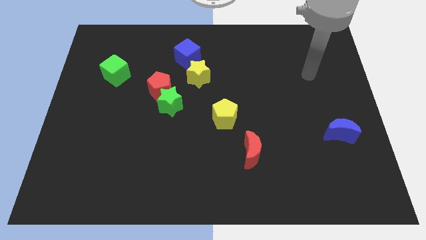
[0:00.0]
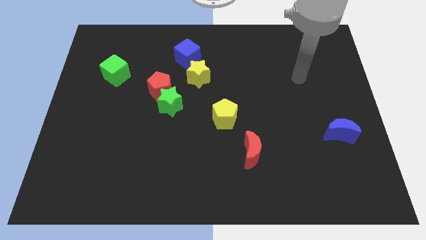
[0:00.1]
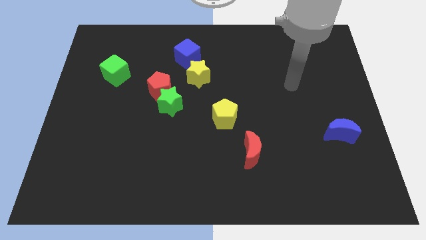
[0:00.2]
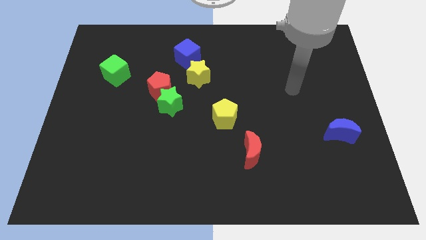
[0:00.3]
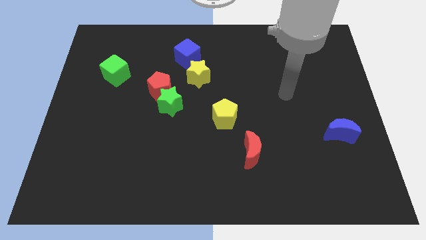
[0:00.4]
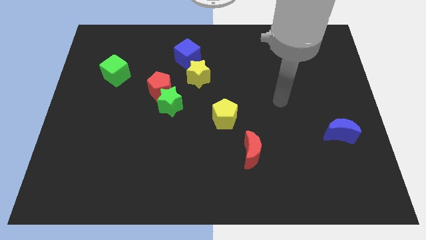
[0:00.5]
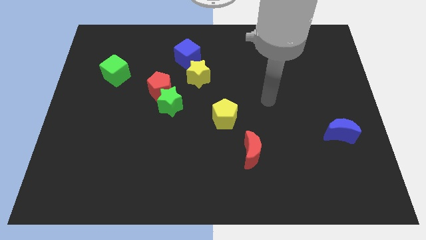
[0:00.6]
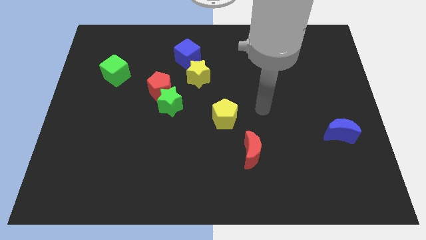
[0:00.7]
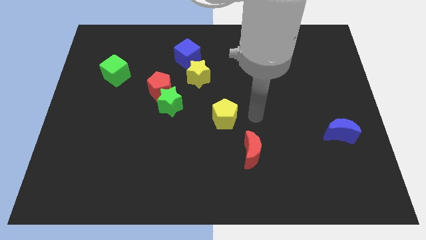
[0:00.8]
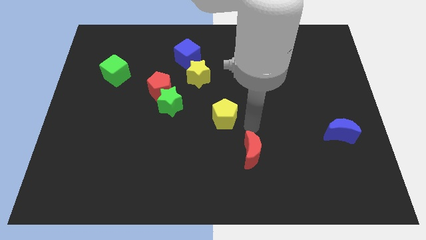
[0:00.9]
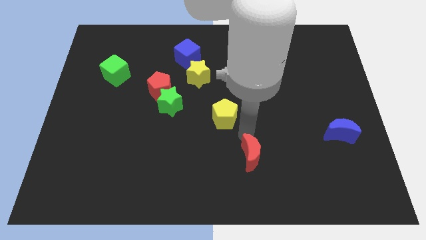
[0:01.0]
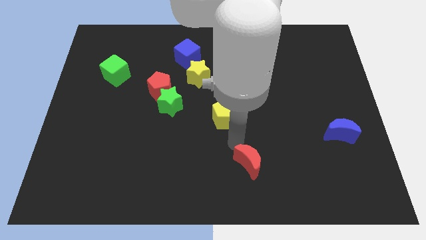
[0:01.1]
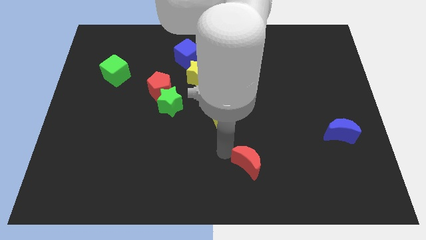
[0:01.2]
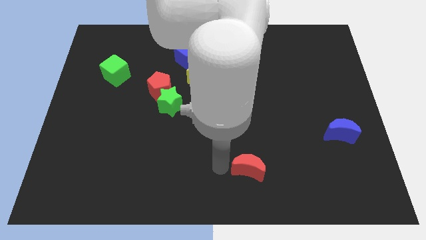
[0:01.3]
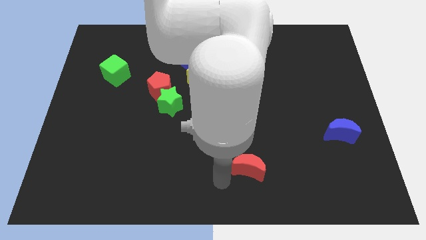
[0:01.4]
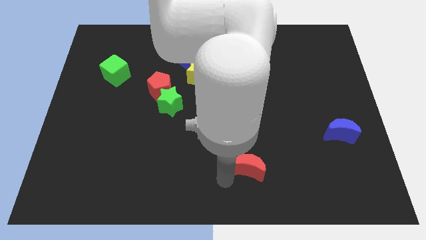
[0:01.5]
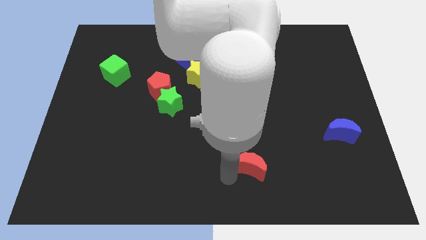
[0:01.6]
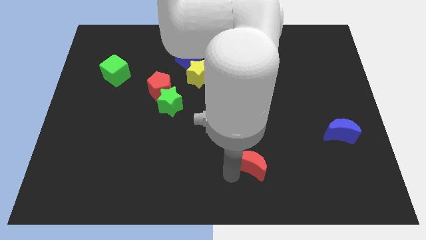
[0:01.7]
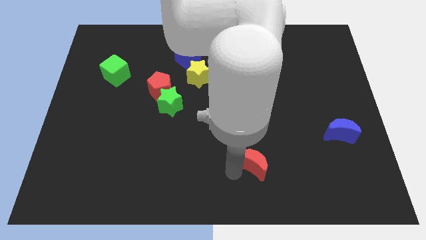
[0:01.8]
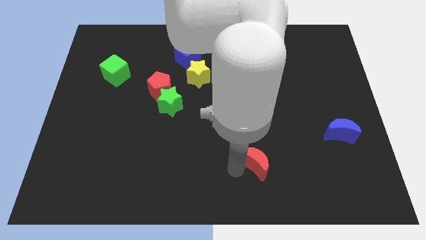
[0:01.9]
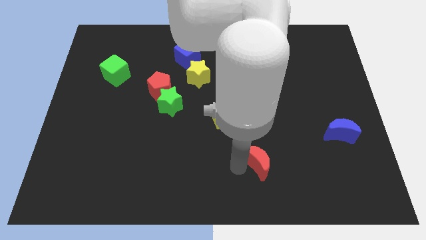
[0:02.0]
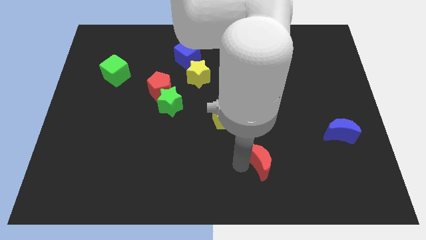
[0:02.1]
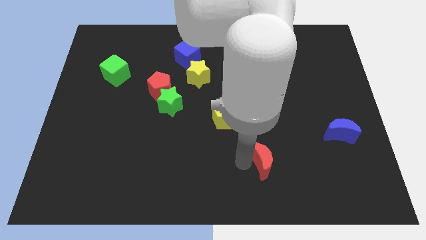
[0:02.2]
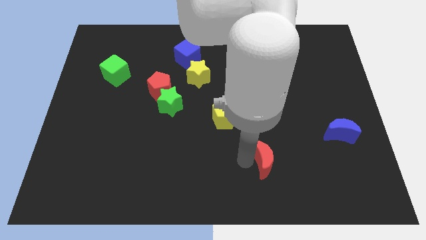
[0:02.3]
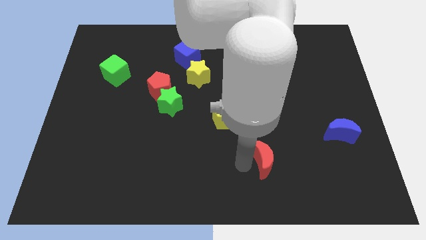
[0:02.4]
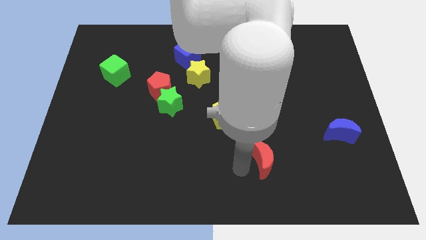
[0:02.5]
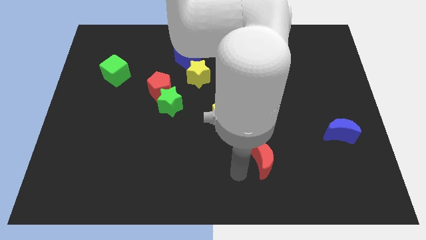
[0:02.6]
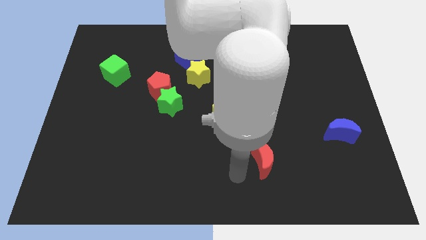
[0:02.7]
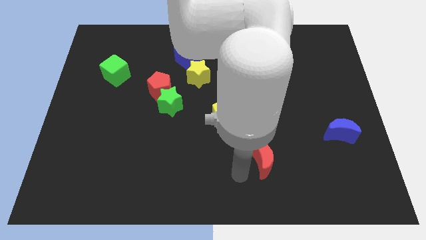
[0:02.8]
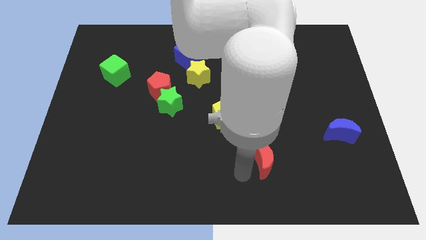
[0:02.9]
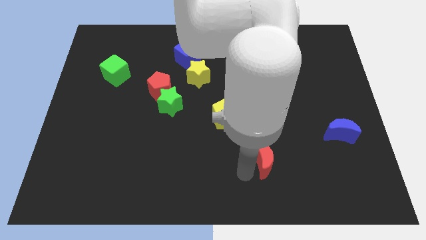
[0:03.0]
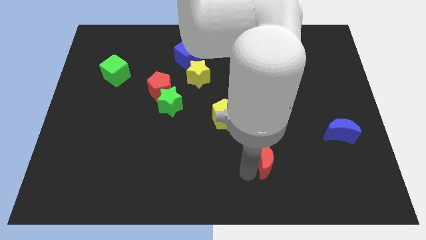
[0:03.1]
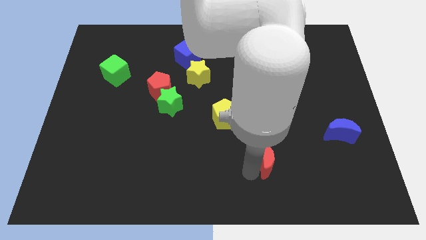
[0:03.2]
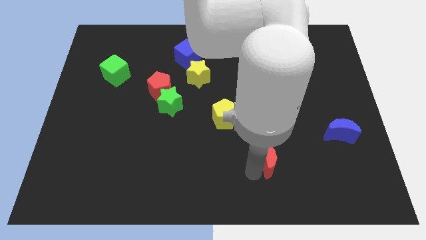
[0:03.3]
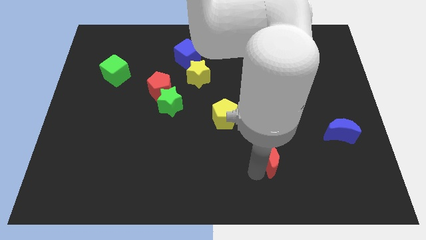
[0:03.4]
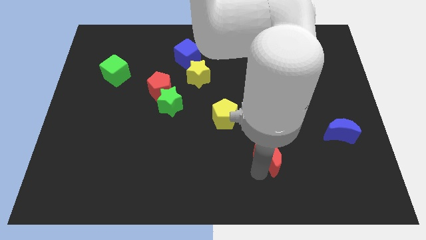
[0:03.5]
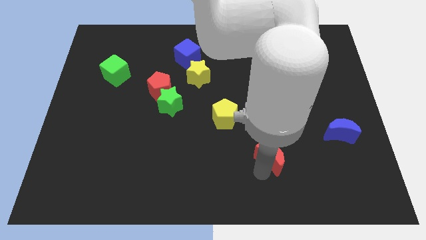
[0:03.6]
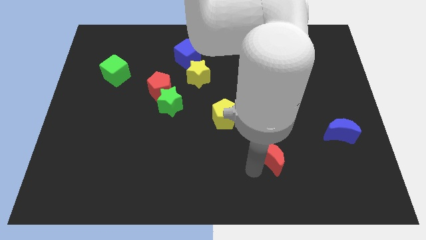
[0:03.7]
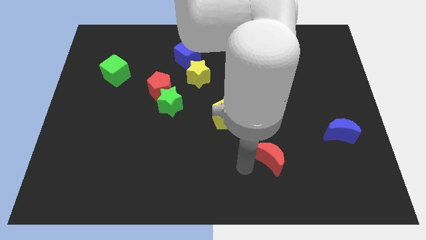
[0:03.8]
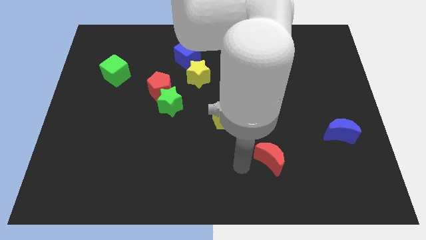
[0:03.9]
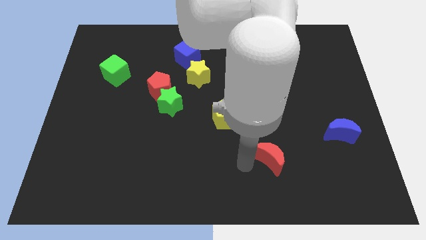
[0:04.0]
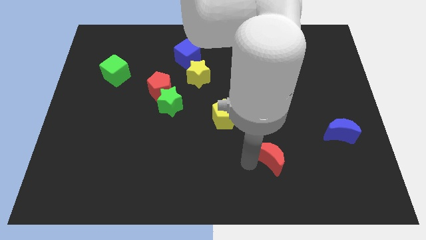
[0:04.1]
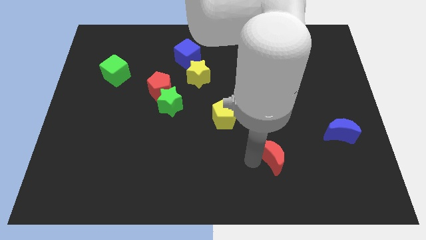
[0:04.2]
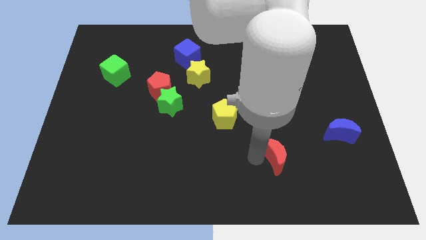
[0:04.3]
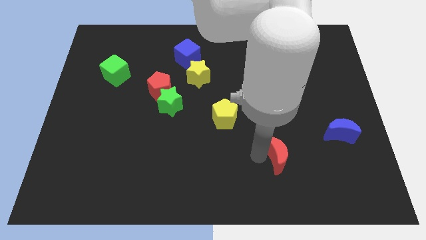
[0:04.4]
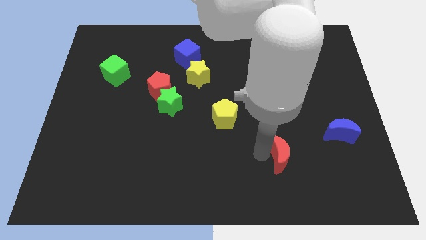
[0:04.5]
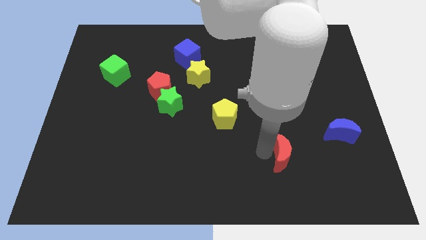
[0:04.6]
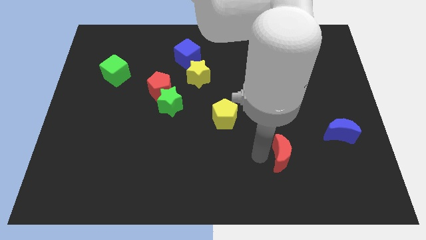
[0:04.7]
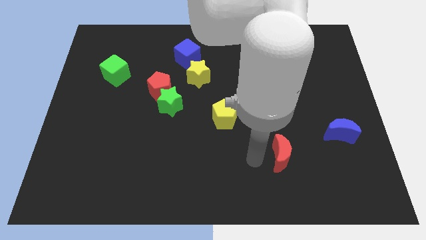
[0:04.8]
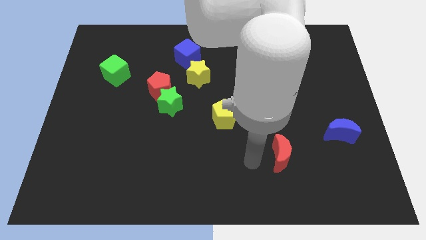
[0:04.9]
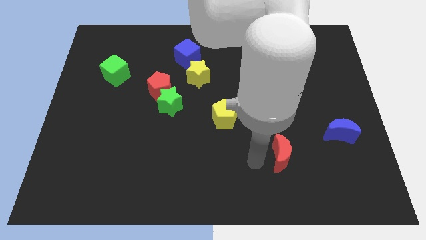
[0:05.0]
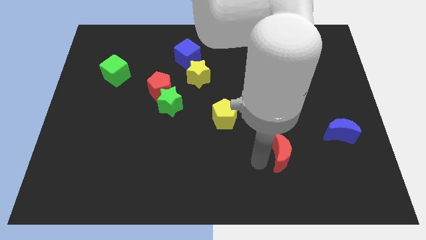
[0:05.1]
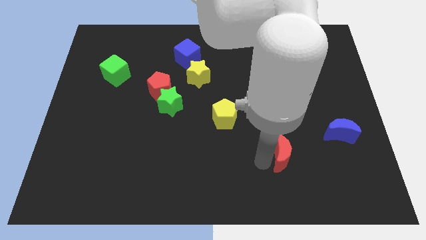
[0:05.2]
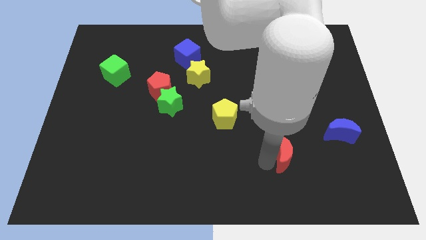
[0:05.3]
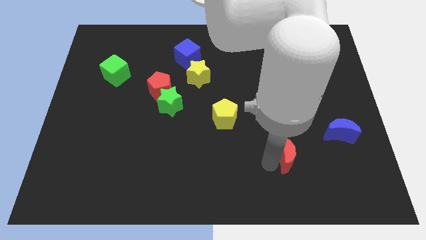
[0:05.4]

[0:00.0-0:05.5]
slide the red moon a bit right

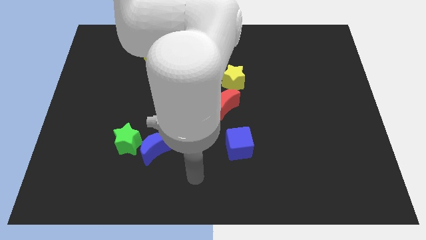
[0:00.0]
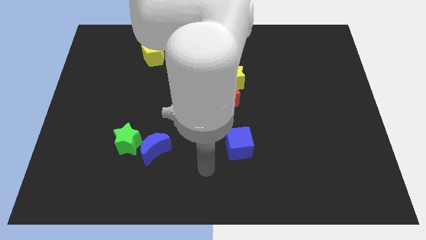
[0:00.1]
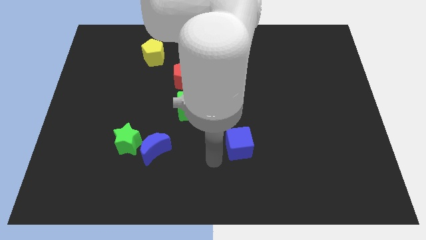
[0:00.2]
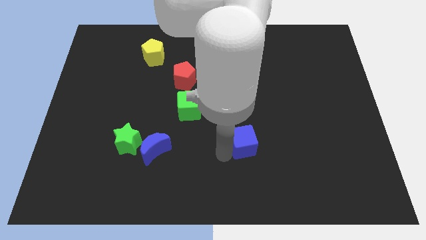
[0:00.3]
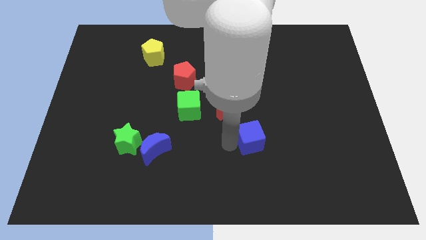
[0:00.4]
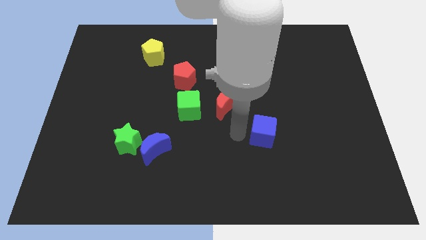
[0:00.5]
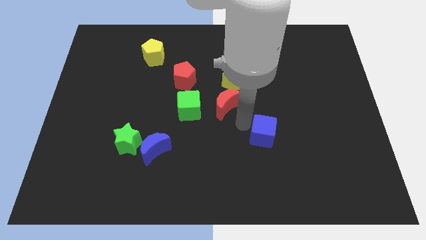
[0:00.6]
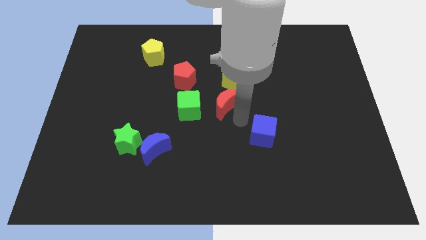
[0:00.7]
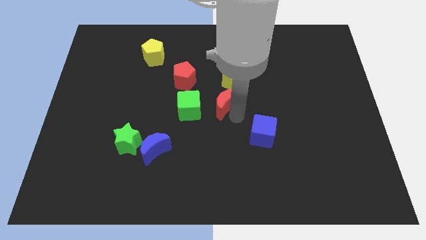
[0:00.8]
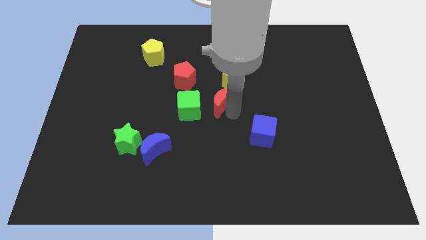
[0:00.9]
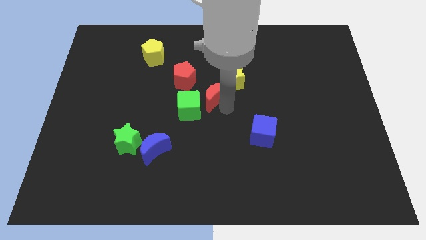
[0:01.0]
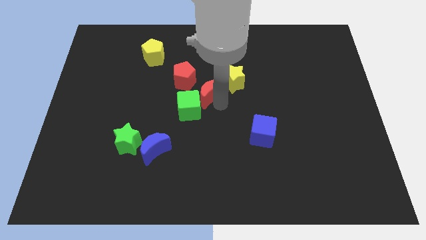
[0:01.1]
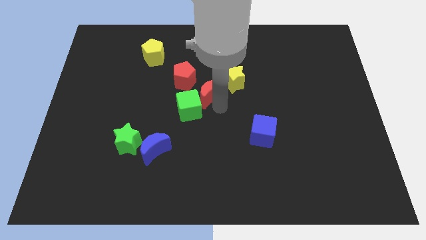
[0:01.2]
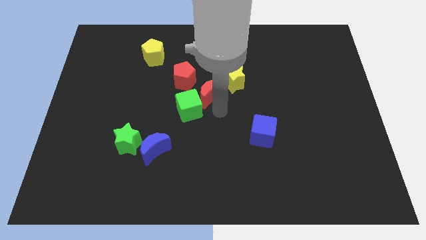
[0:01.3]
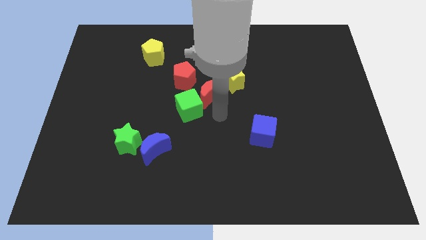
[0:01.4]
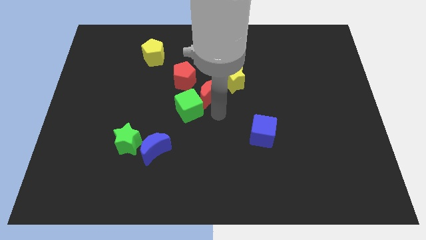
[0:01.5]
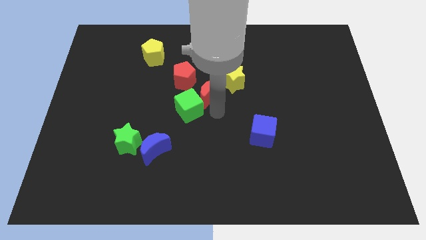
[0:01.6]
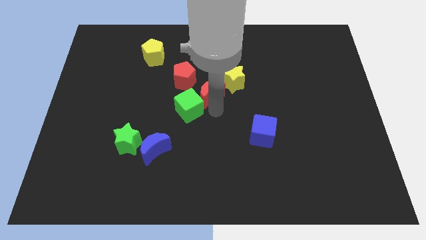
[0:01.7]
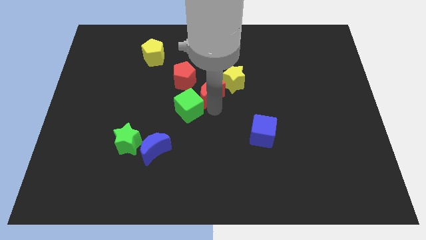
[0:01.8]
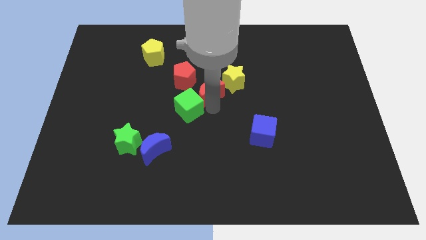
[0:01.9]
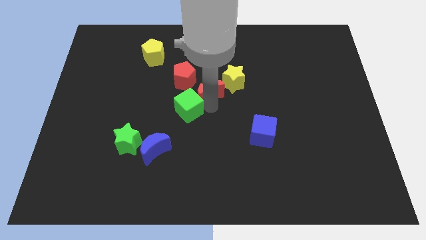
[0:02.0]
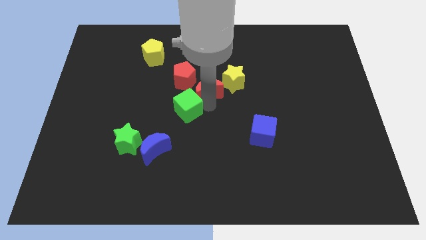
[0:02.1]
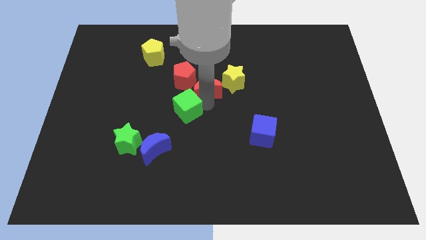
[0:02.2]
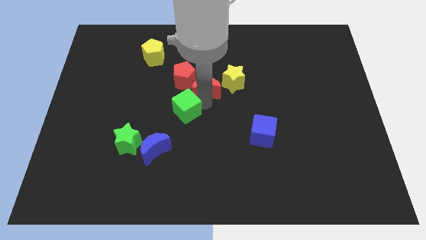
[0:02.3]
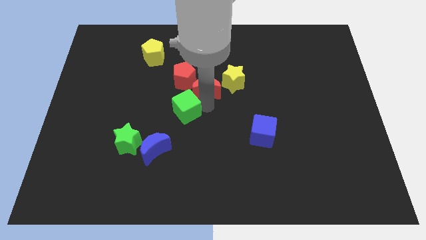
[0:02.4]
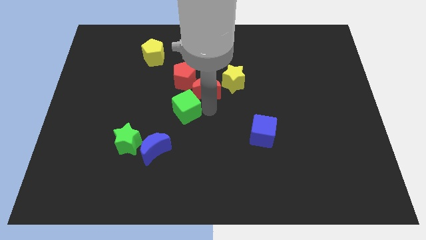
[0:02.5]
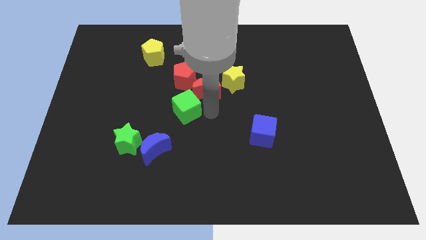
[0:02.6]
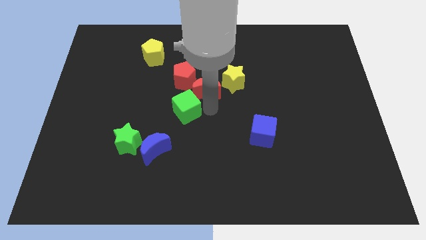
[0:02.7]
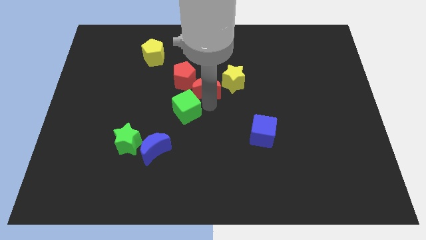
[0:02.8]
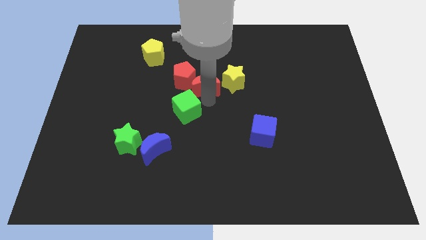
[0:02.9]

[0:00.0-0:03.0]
slightly push the red moon upwards and left
